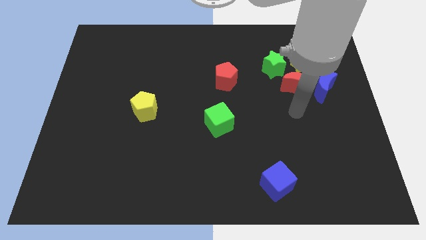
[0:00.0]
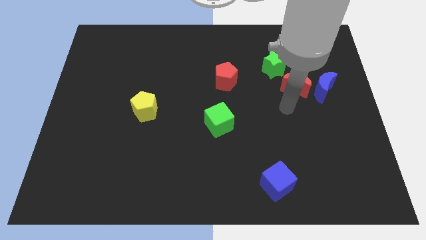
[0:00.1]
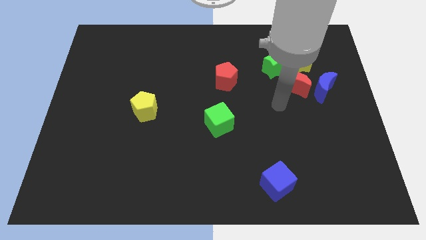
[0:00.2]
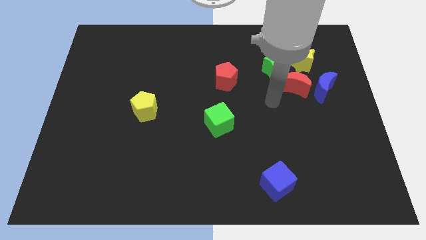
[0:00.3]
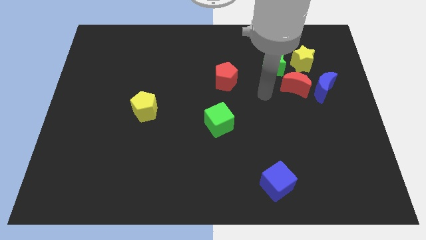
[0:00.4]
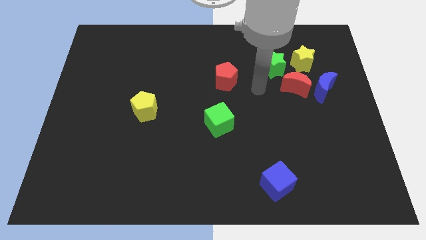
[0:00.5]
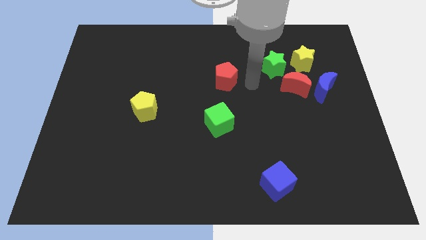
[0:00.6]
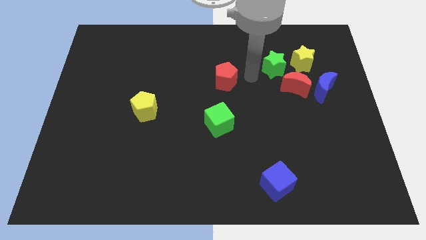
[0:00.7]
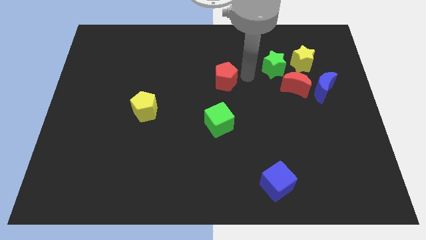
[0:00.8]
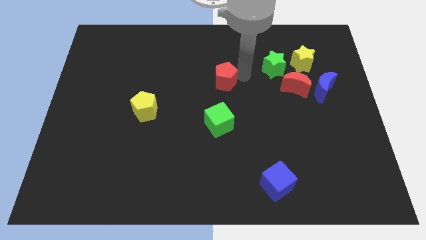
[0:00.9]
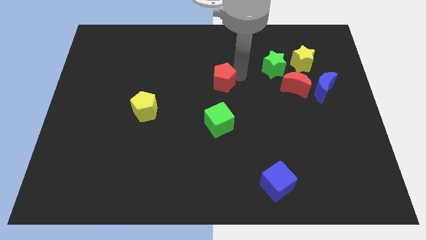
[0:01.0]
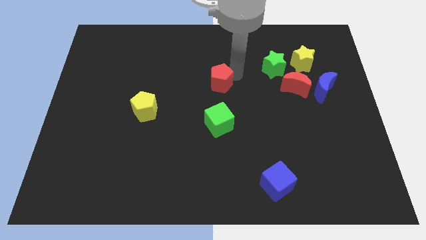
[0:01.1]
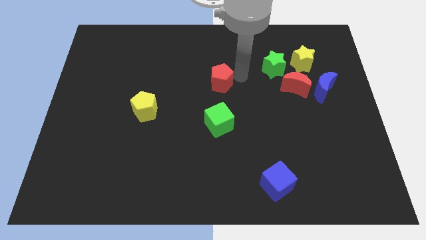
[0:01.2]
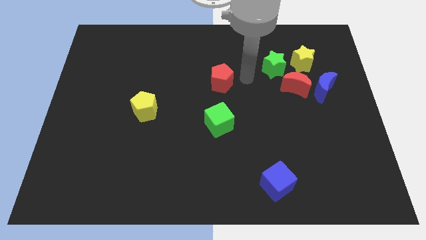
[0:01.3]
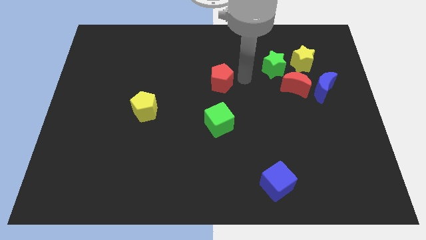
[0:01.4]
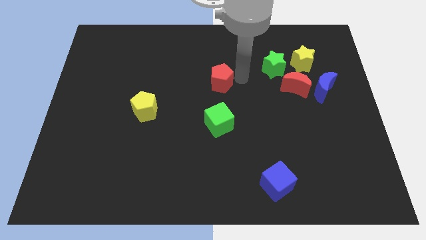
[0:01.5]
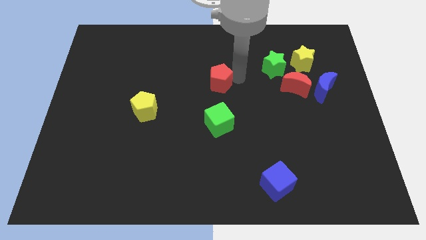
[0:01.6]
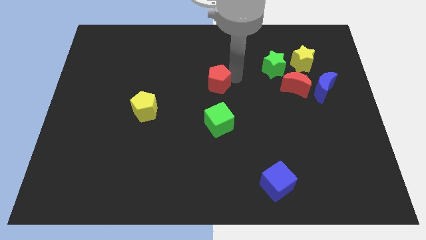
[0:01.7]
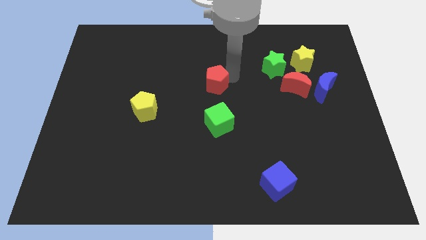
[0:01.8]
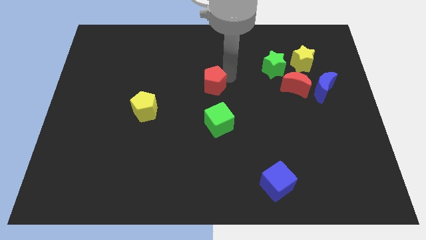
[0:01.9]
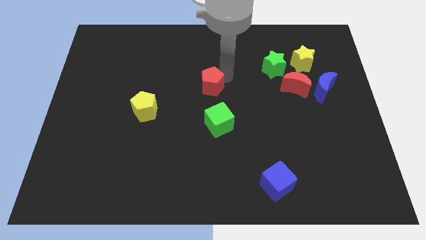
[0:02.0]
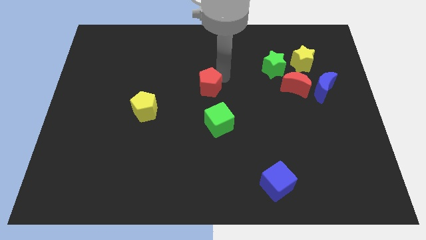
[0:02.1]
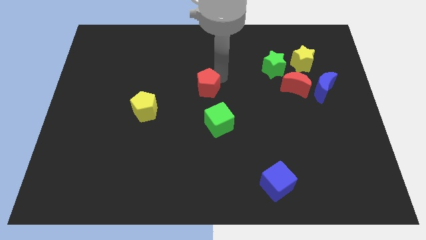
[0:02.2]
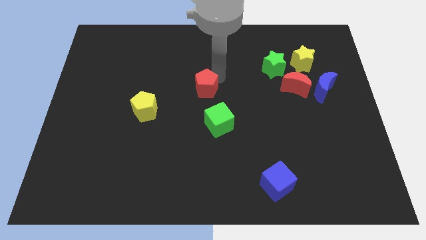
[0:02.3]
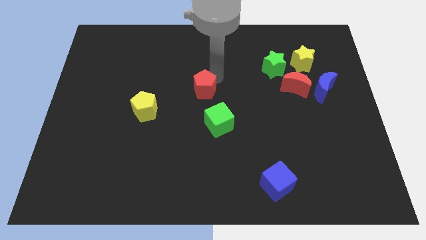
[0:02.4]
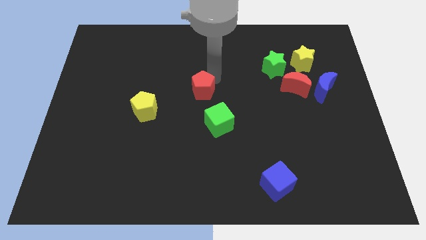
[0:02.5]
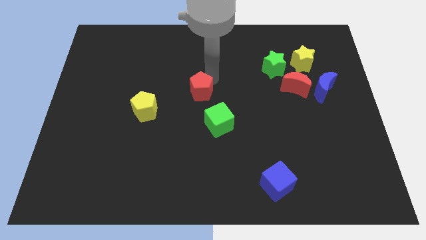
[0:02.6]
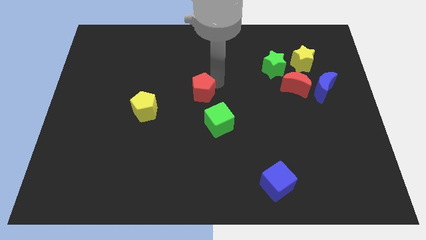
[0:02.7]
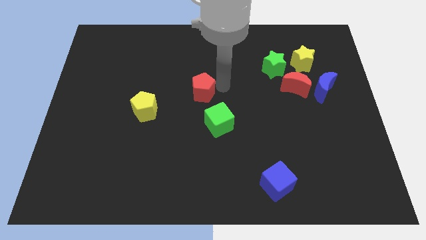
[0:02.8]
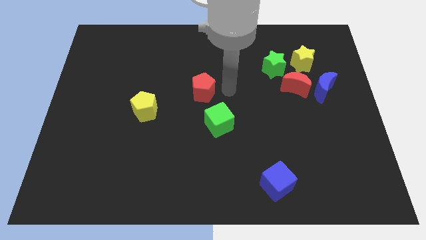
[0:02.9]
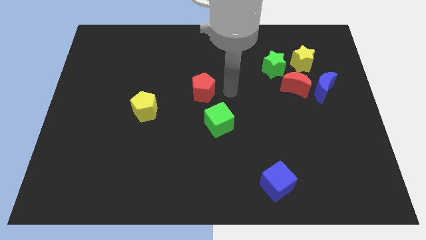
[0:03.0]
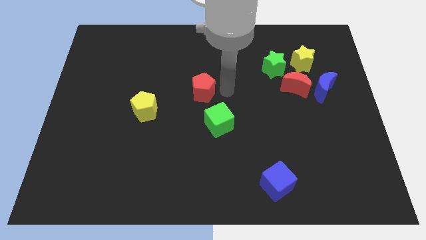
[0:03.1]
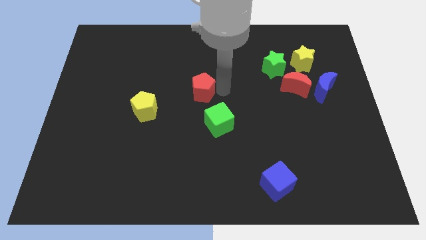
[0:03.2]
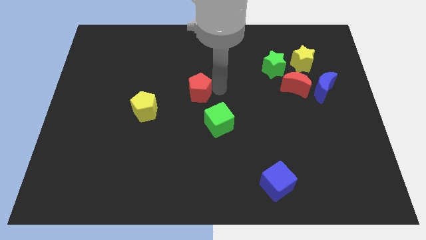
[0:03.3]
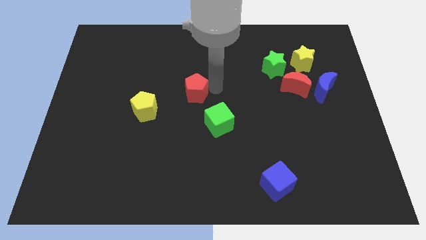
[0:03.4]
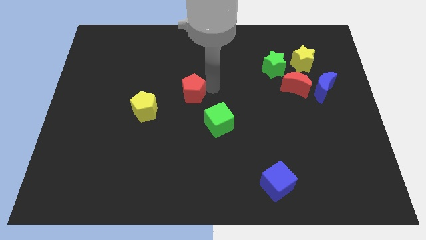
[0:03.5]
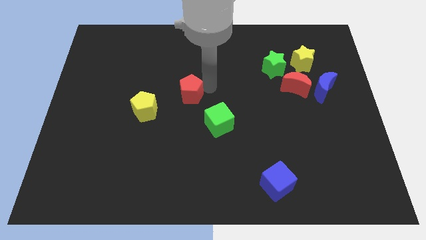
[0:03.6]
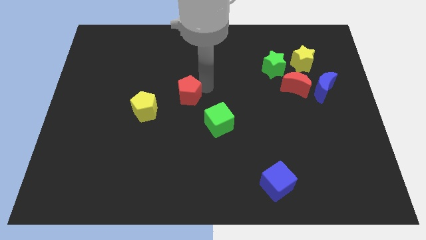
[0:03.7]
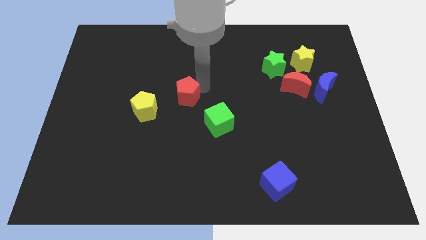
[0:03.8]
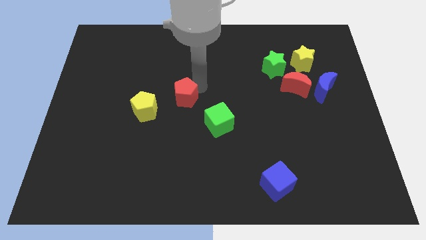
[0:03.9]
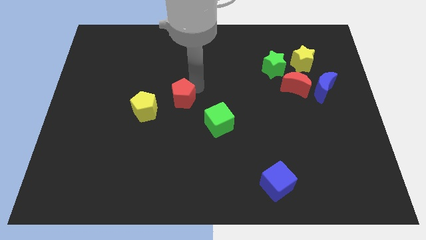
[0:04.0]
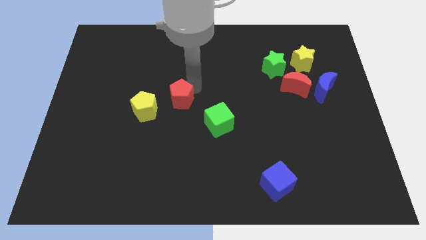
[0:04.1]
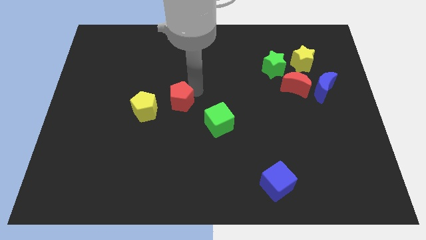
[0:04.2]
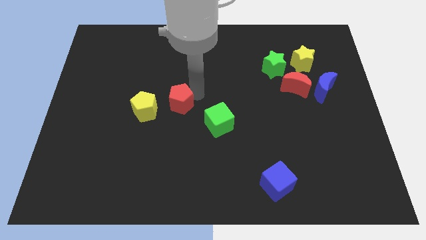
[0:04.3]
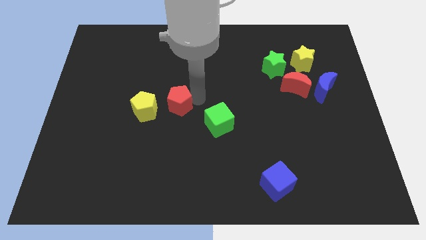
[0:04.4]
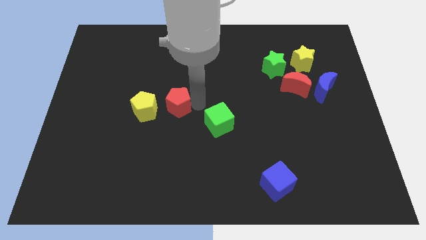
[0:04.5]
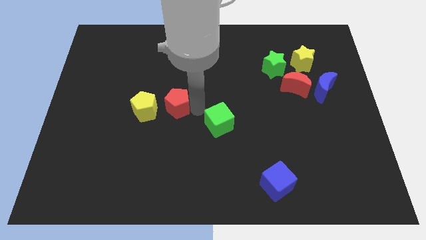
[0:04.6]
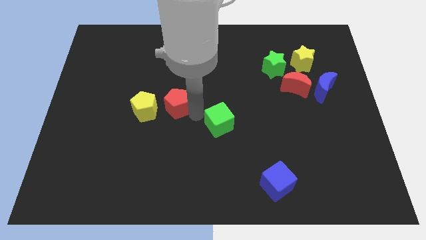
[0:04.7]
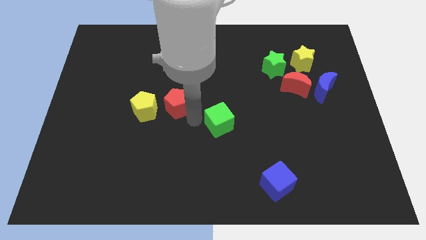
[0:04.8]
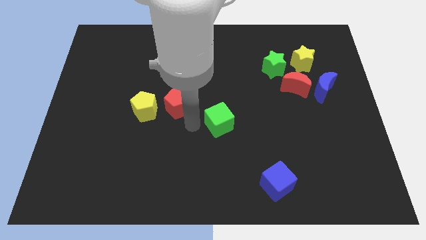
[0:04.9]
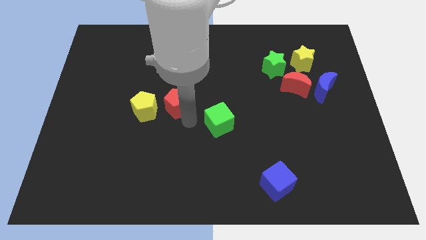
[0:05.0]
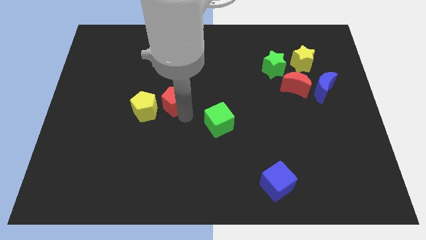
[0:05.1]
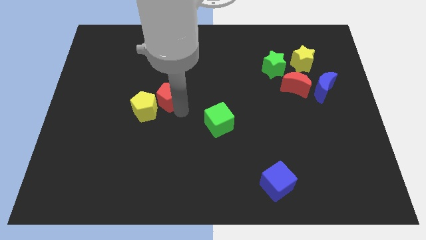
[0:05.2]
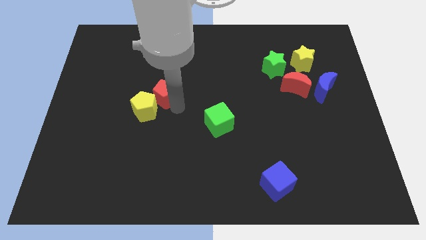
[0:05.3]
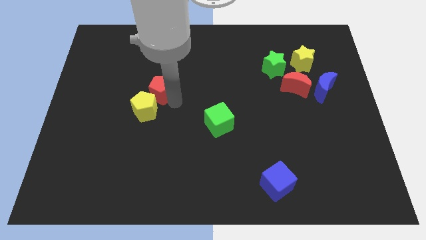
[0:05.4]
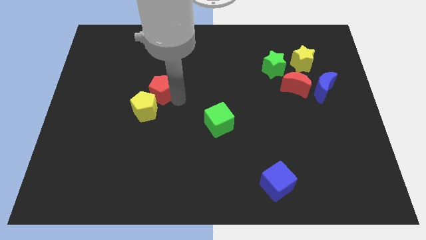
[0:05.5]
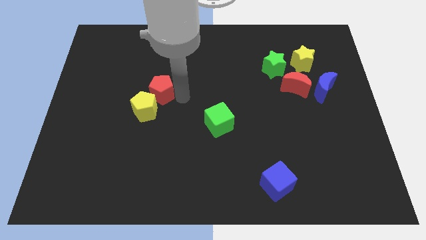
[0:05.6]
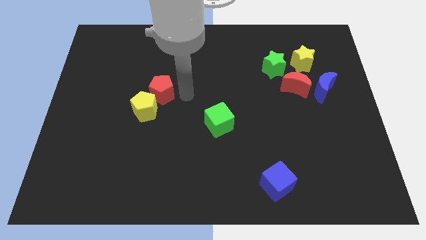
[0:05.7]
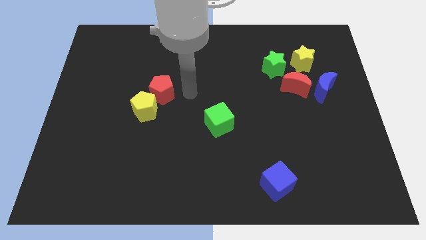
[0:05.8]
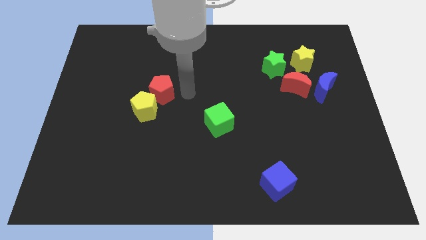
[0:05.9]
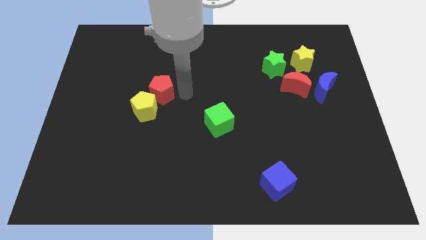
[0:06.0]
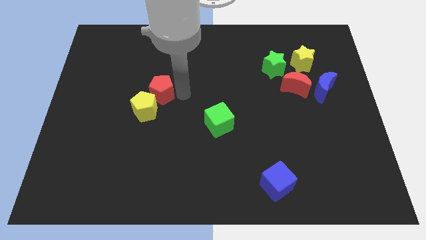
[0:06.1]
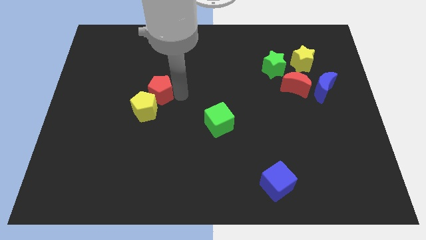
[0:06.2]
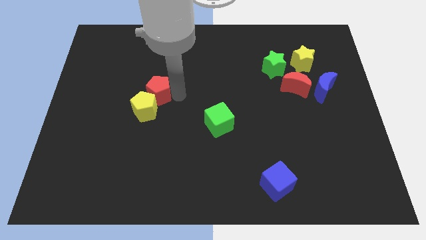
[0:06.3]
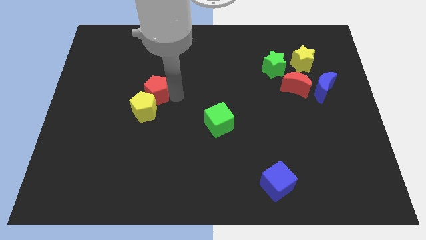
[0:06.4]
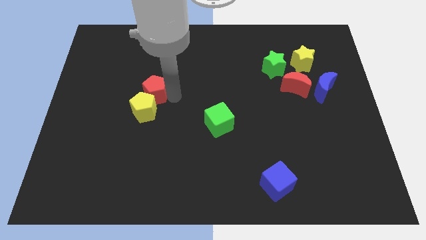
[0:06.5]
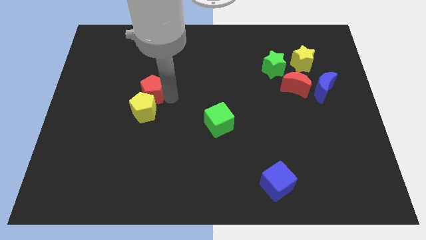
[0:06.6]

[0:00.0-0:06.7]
put the red pentagon to the top left side of the yellow pentagon

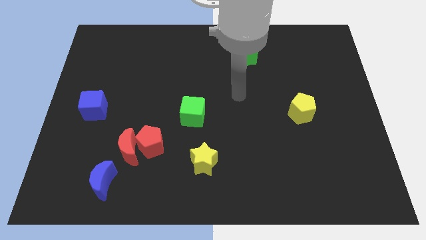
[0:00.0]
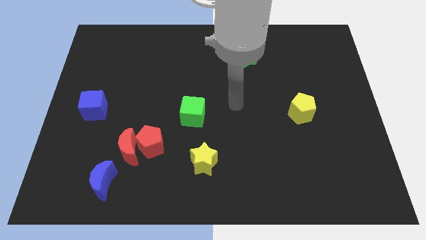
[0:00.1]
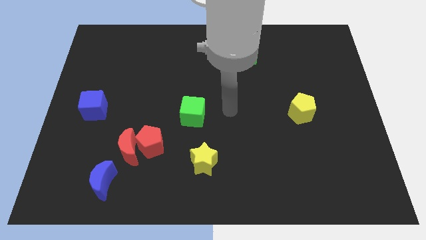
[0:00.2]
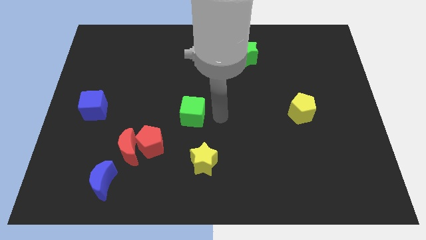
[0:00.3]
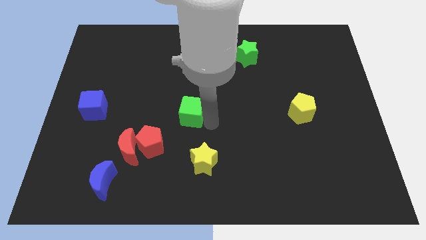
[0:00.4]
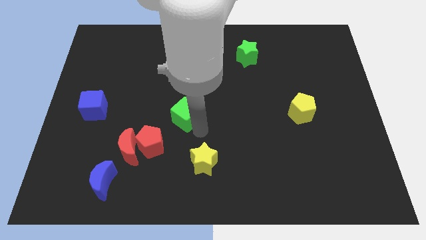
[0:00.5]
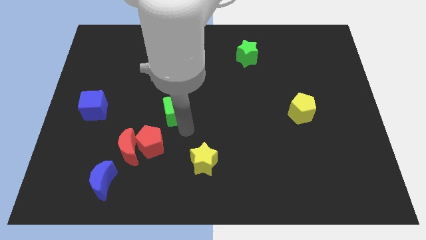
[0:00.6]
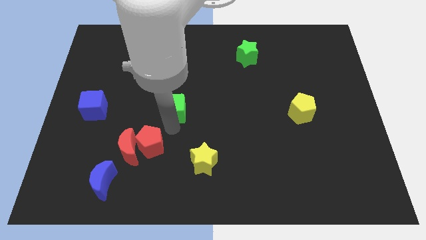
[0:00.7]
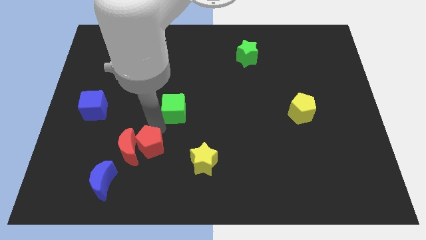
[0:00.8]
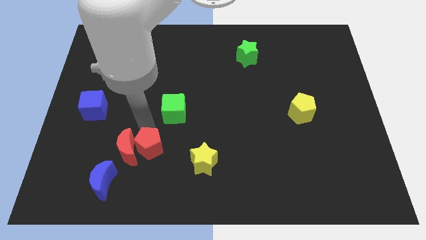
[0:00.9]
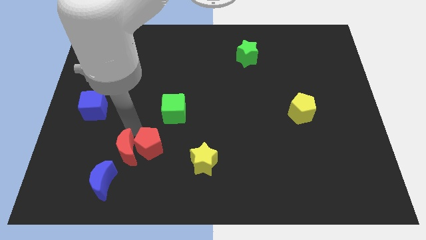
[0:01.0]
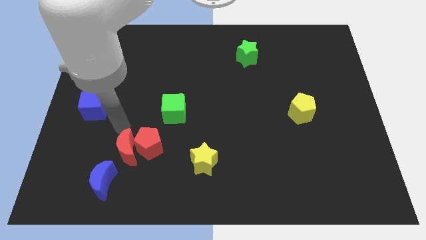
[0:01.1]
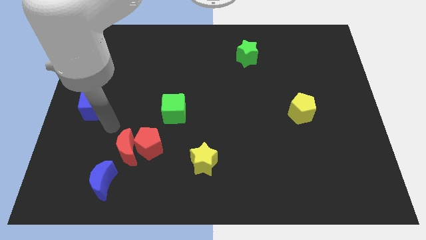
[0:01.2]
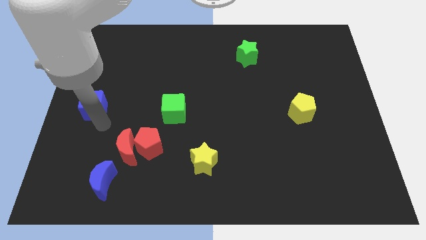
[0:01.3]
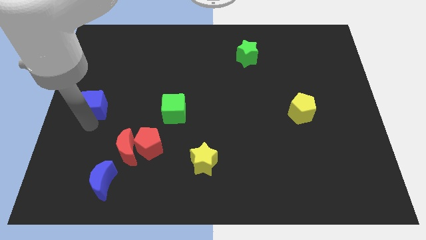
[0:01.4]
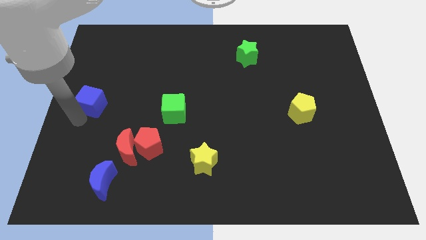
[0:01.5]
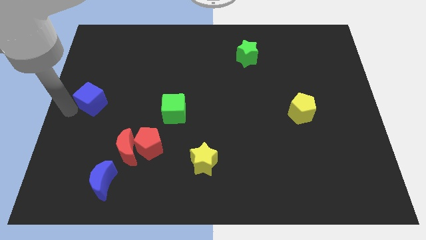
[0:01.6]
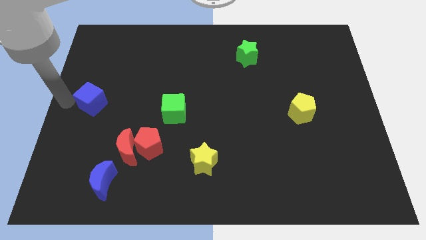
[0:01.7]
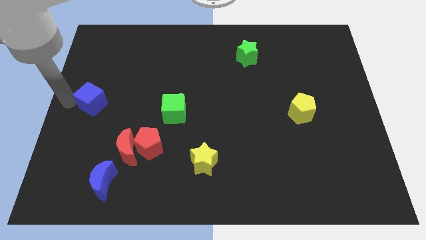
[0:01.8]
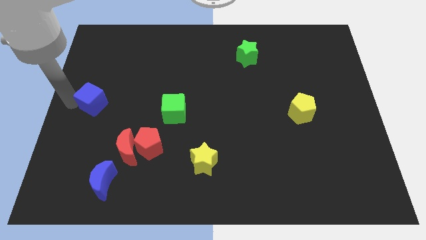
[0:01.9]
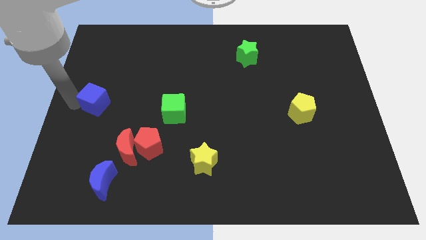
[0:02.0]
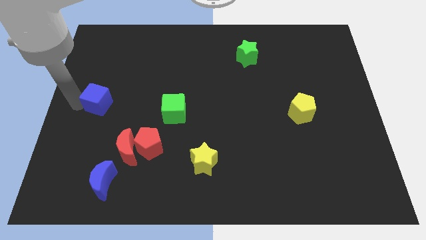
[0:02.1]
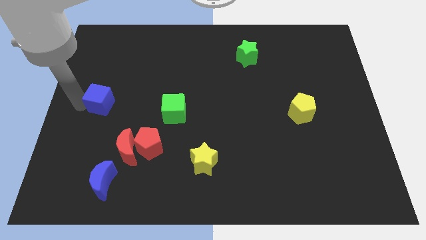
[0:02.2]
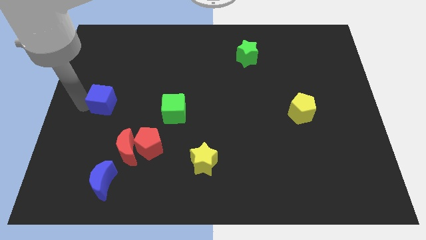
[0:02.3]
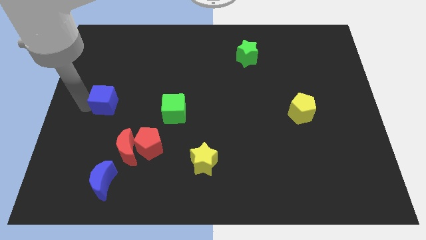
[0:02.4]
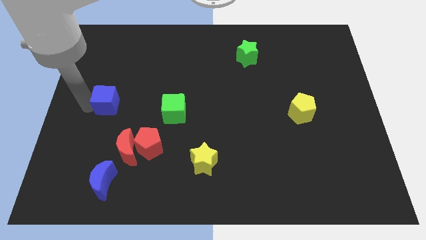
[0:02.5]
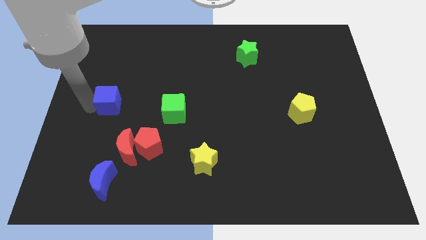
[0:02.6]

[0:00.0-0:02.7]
slide the blue cube to the left of the green cube
